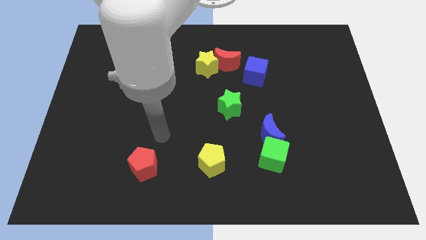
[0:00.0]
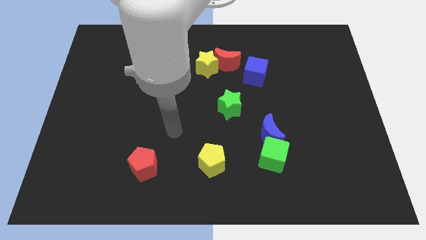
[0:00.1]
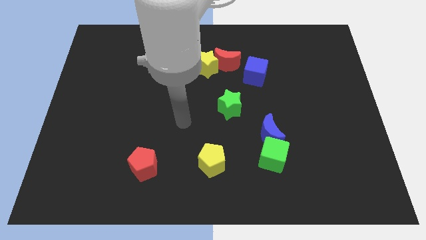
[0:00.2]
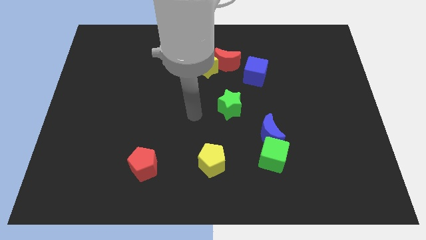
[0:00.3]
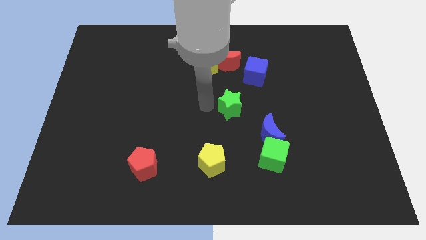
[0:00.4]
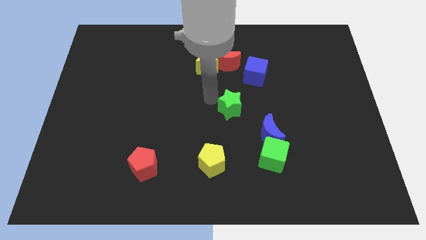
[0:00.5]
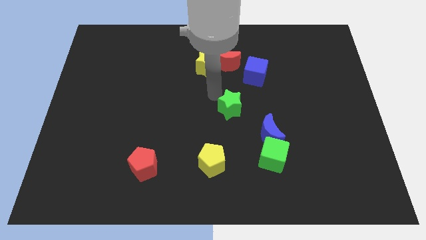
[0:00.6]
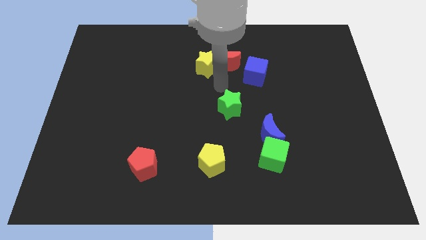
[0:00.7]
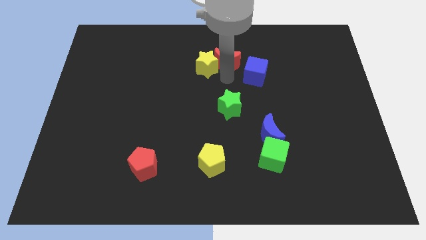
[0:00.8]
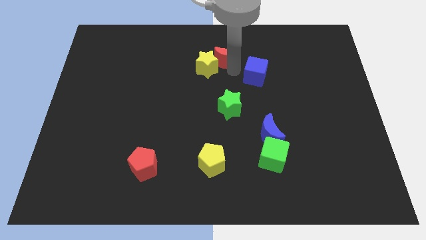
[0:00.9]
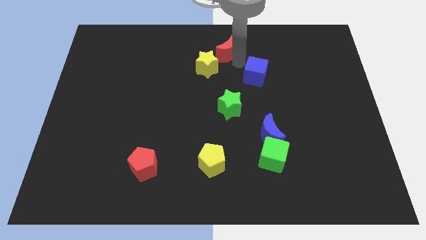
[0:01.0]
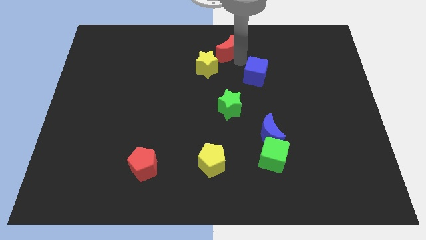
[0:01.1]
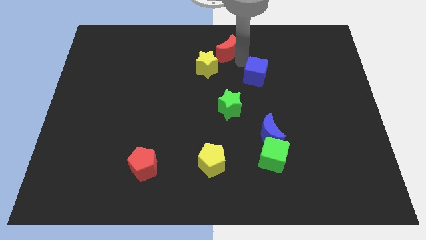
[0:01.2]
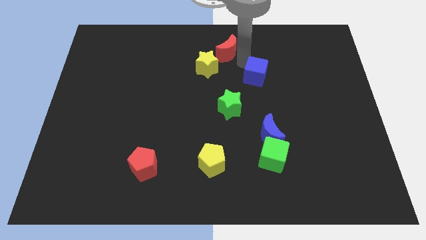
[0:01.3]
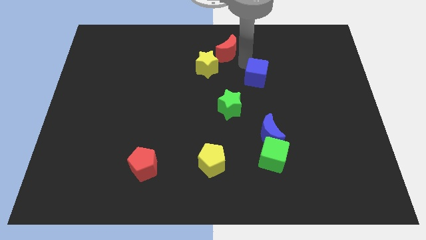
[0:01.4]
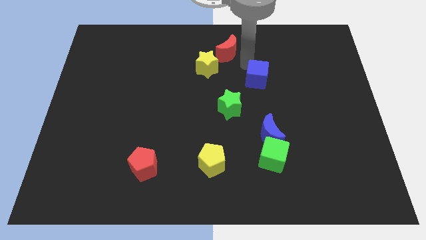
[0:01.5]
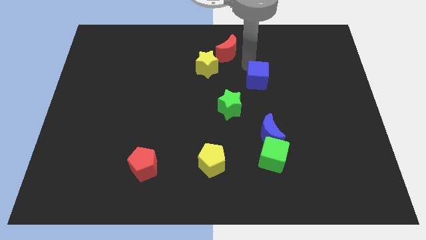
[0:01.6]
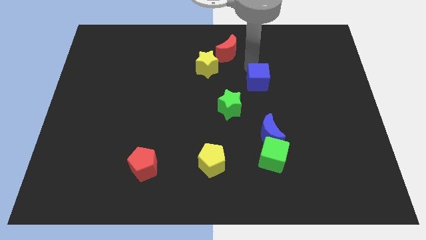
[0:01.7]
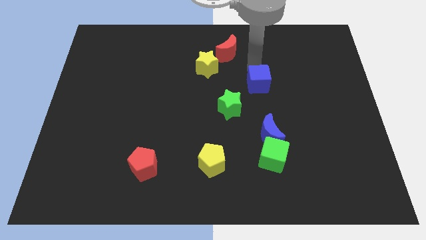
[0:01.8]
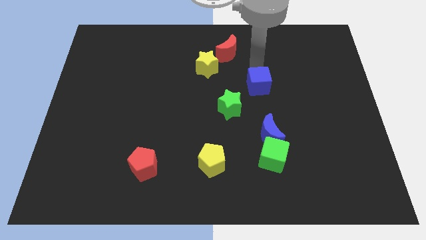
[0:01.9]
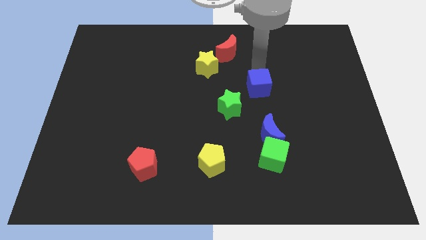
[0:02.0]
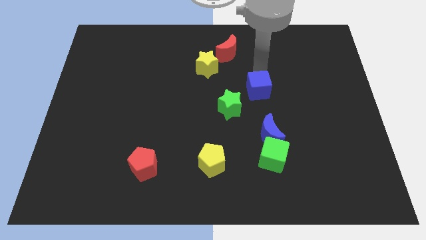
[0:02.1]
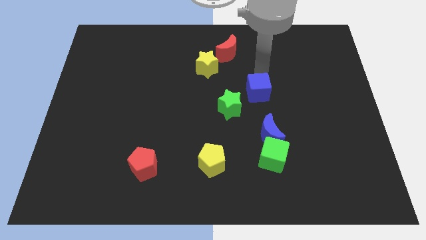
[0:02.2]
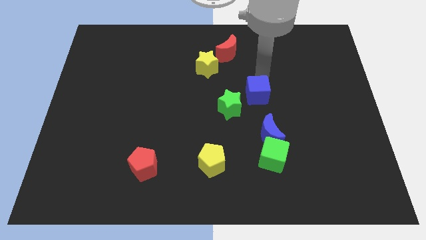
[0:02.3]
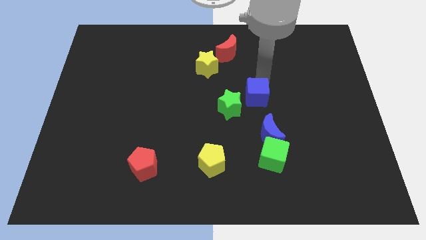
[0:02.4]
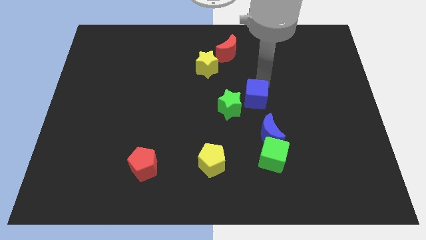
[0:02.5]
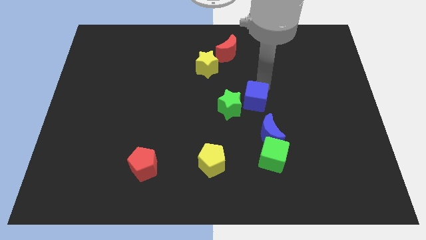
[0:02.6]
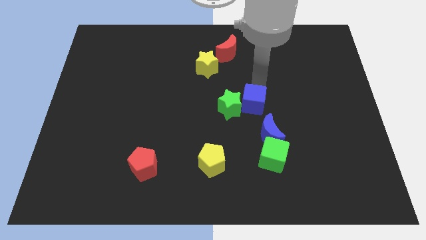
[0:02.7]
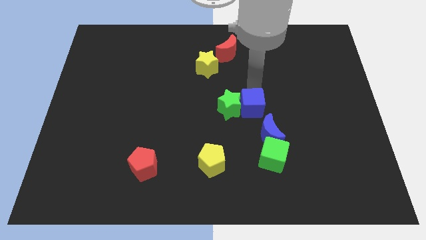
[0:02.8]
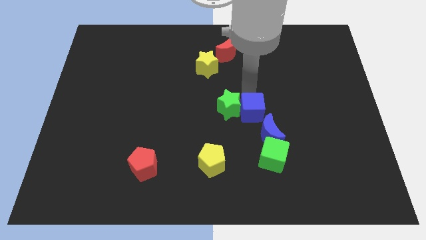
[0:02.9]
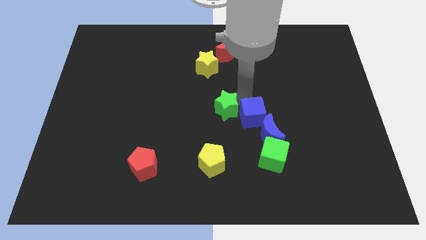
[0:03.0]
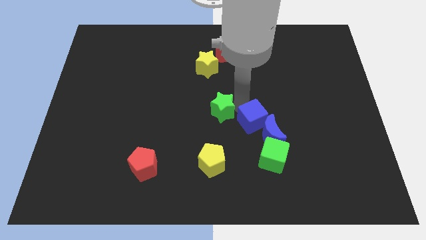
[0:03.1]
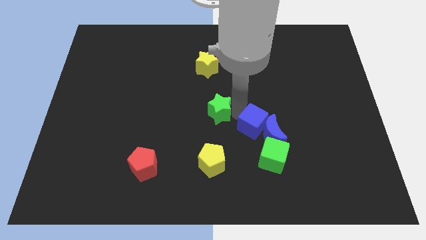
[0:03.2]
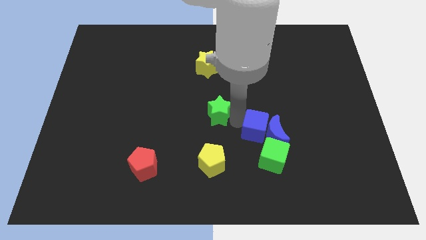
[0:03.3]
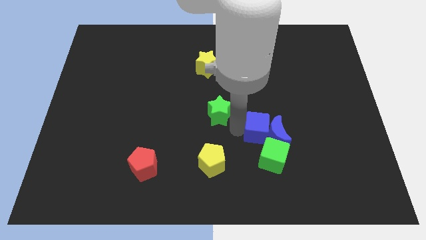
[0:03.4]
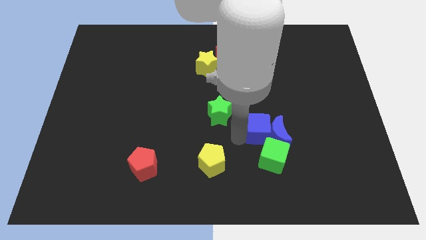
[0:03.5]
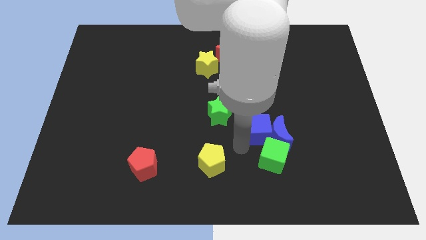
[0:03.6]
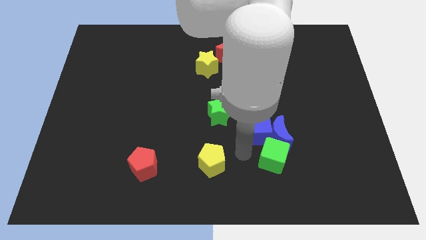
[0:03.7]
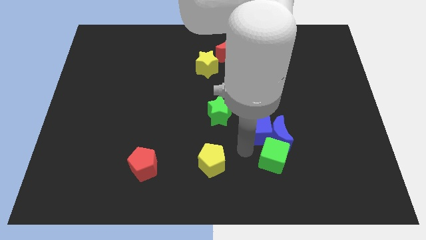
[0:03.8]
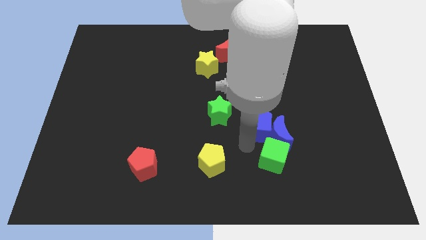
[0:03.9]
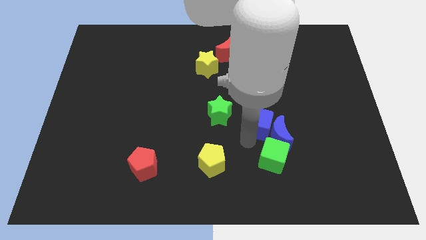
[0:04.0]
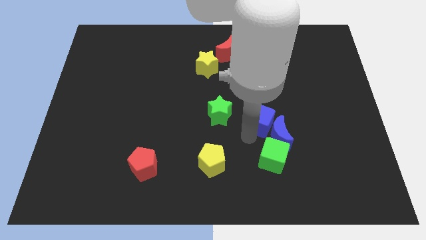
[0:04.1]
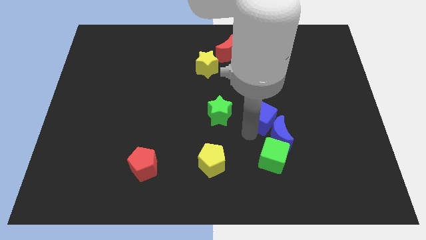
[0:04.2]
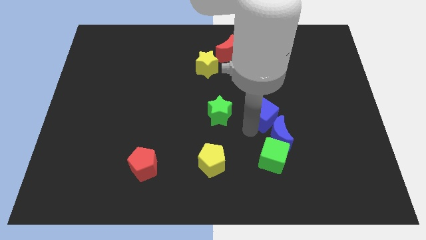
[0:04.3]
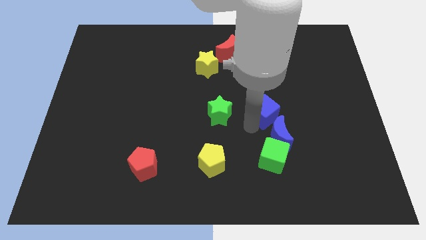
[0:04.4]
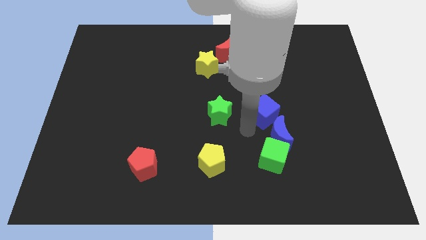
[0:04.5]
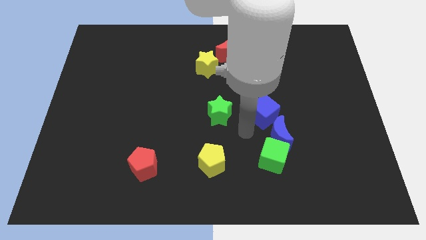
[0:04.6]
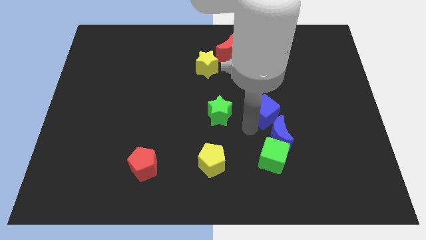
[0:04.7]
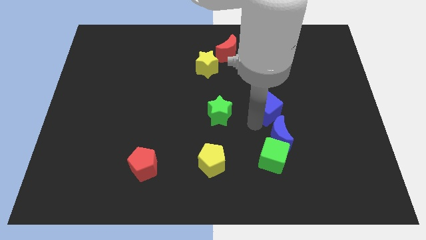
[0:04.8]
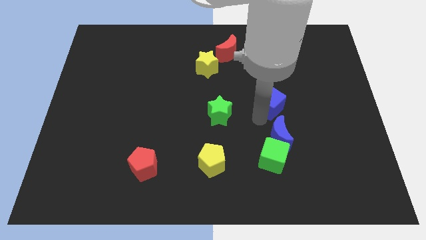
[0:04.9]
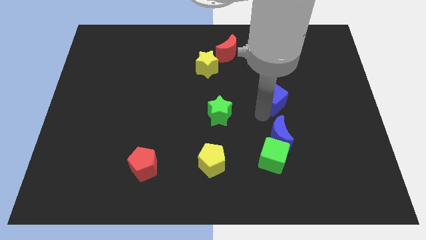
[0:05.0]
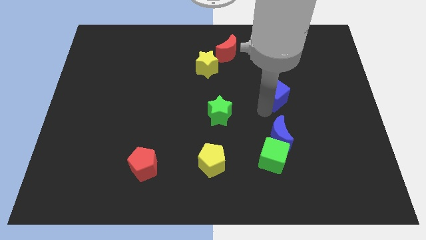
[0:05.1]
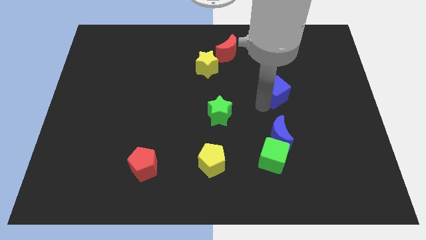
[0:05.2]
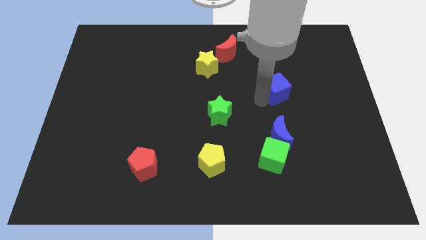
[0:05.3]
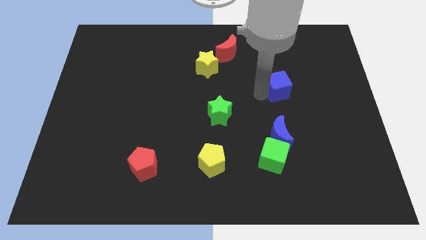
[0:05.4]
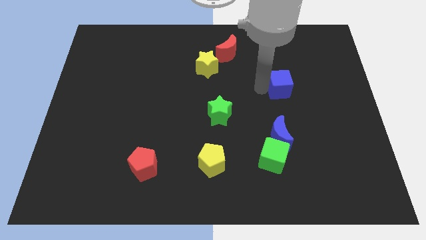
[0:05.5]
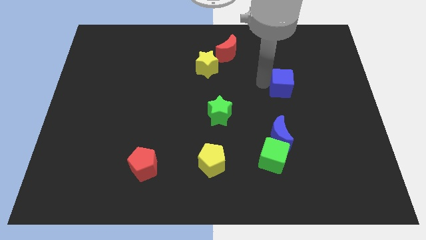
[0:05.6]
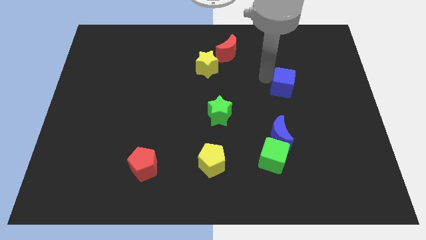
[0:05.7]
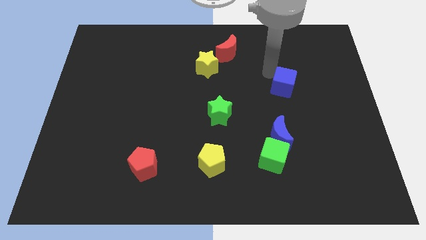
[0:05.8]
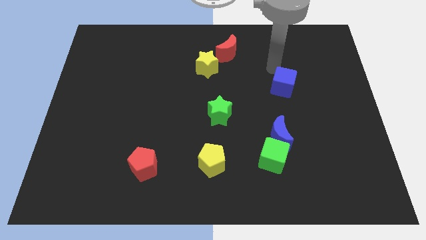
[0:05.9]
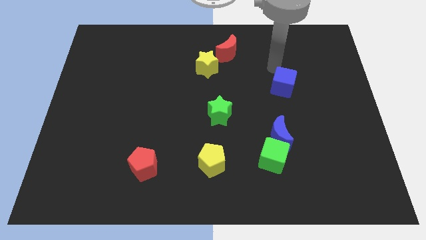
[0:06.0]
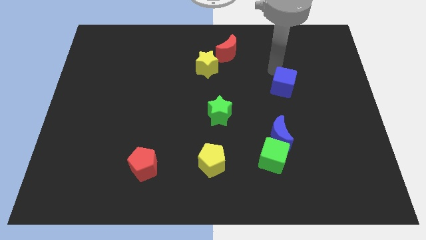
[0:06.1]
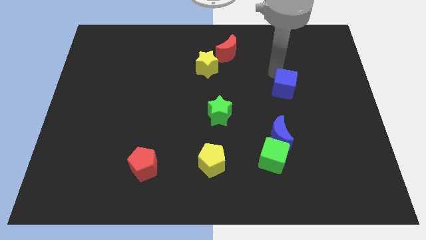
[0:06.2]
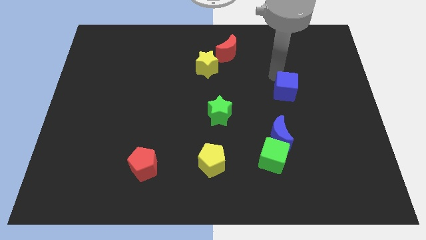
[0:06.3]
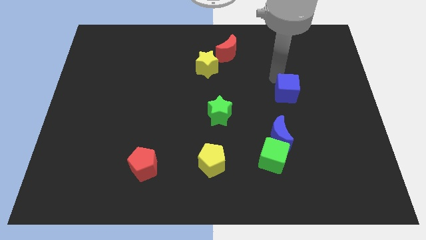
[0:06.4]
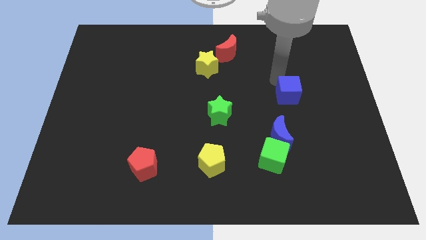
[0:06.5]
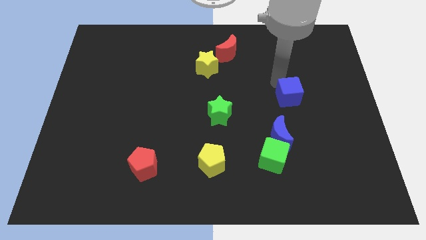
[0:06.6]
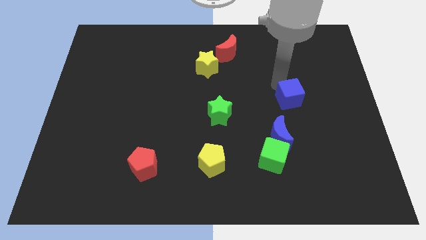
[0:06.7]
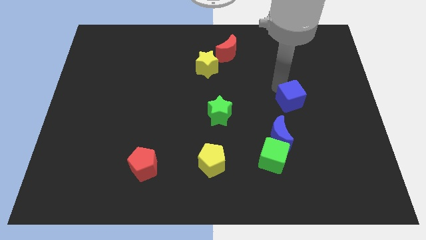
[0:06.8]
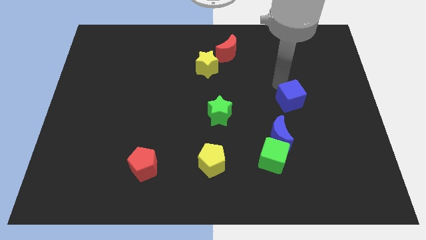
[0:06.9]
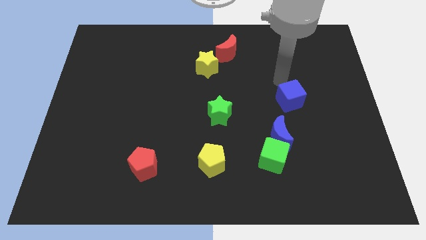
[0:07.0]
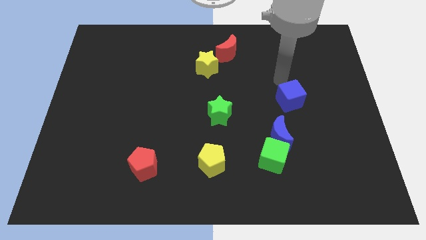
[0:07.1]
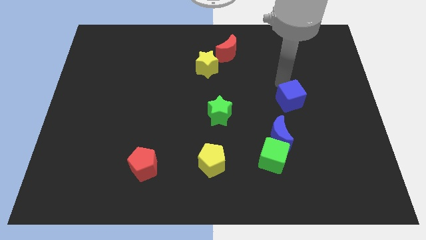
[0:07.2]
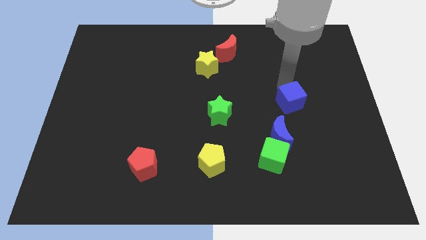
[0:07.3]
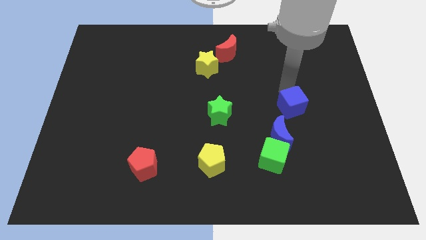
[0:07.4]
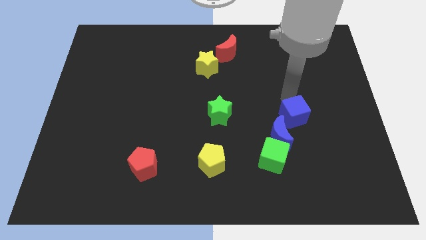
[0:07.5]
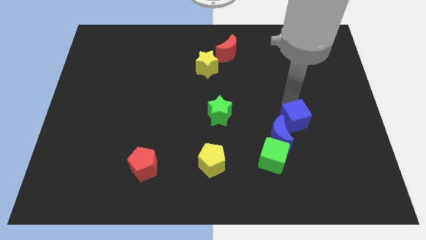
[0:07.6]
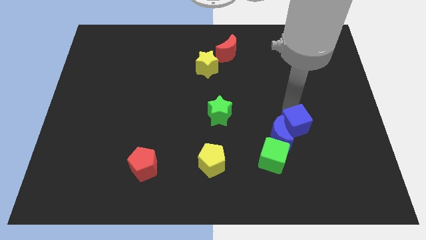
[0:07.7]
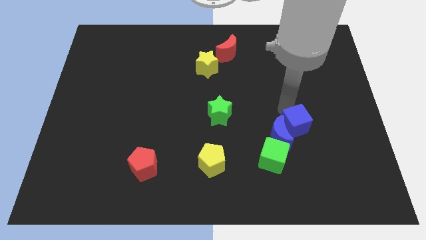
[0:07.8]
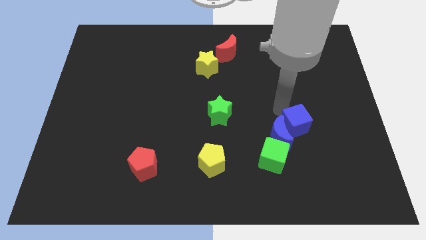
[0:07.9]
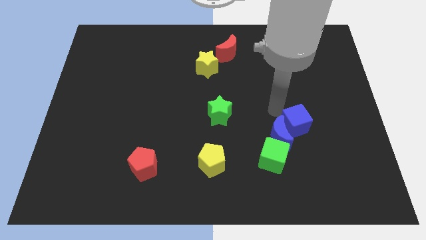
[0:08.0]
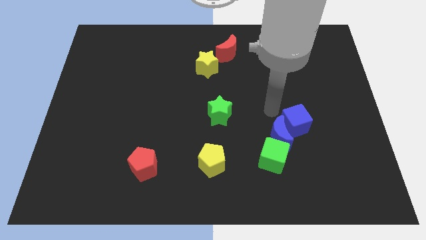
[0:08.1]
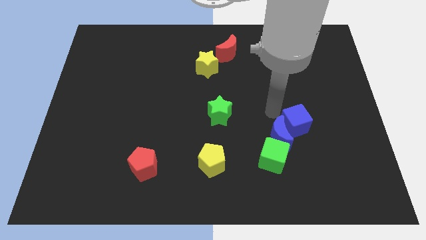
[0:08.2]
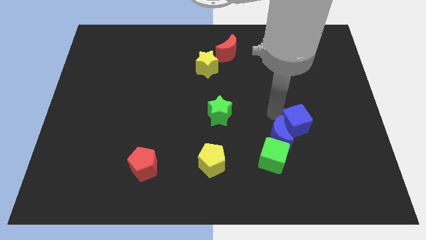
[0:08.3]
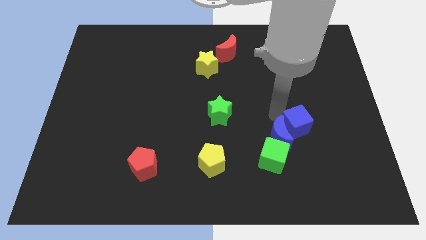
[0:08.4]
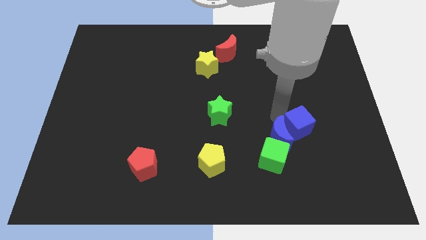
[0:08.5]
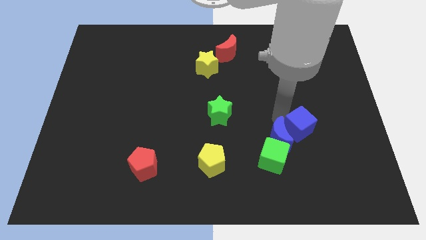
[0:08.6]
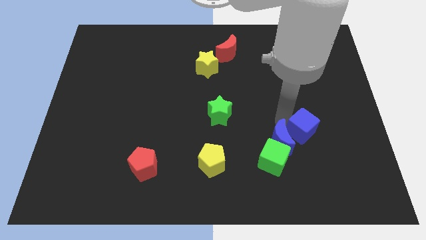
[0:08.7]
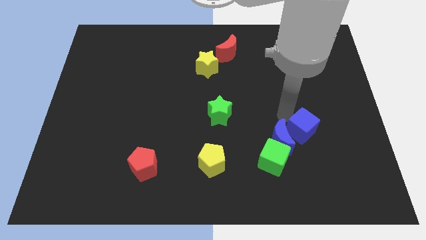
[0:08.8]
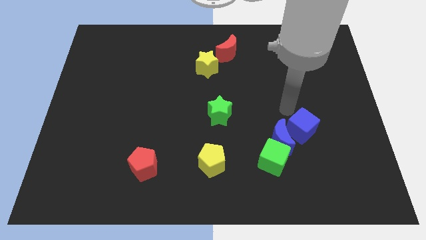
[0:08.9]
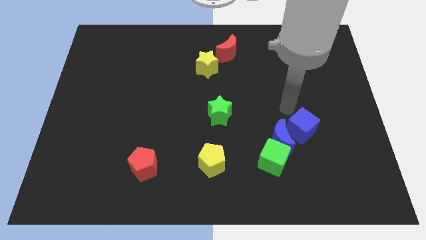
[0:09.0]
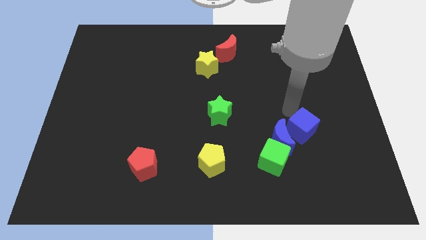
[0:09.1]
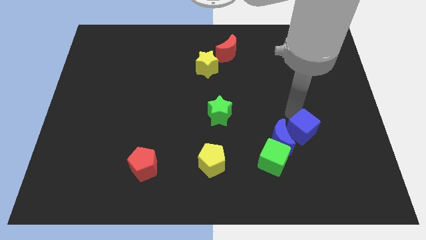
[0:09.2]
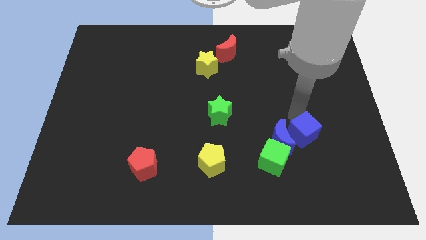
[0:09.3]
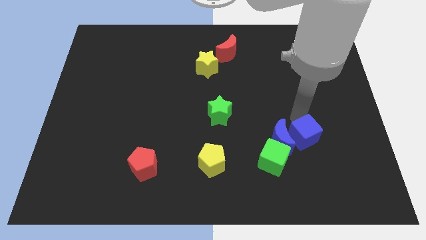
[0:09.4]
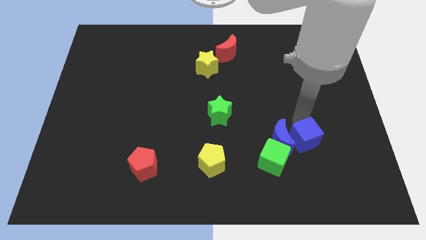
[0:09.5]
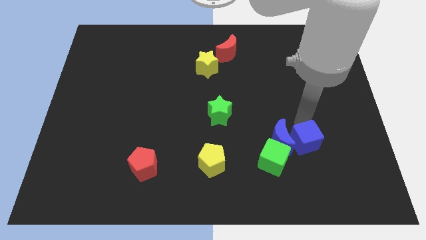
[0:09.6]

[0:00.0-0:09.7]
put the blue cube to the right side of the green cube
